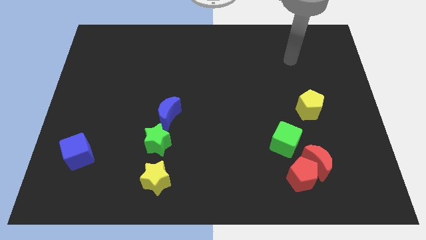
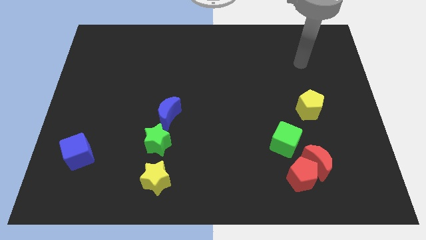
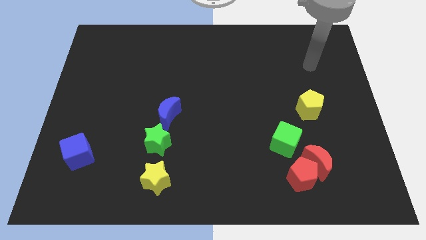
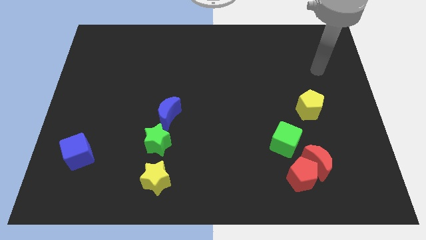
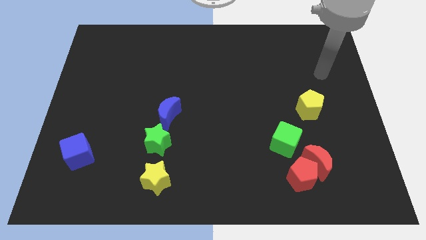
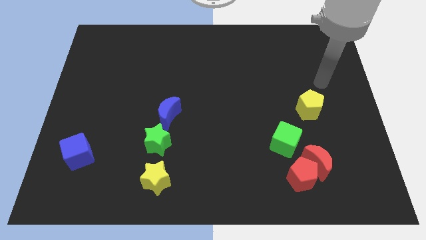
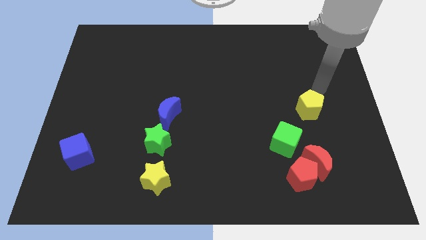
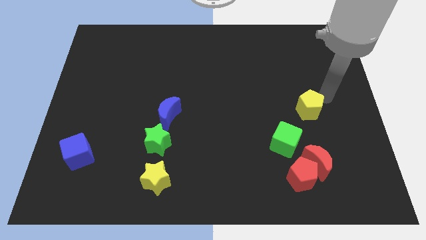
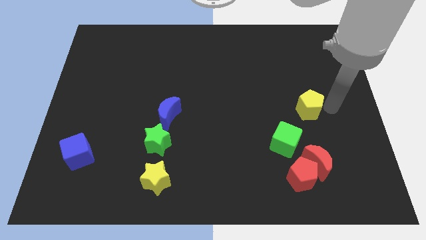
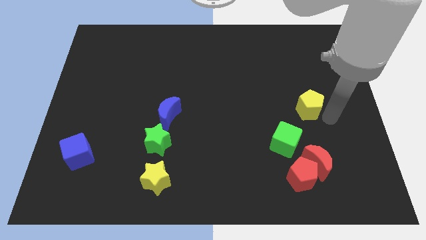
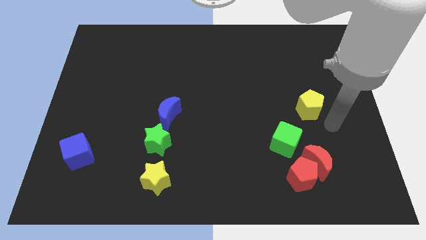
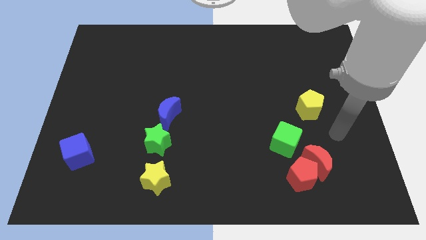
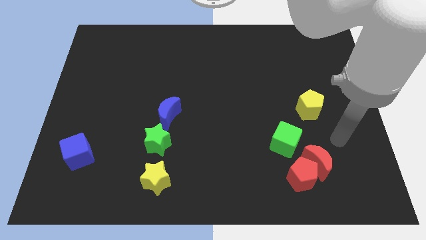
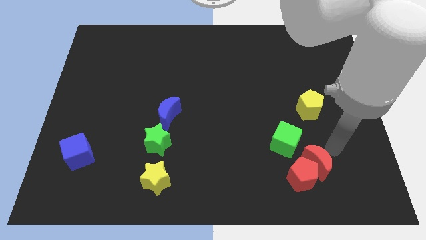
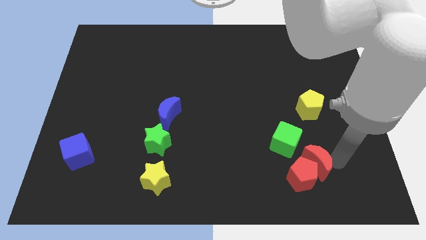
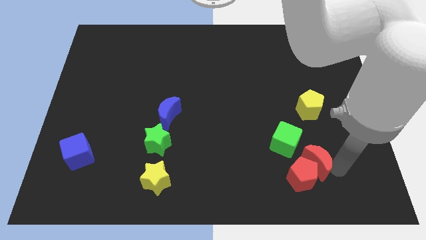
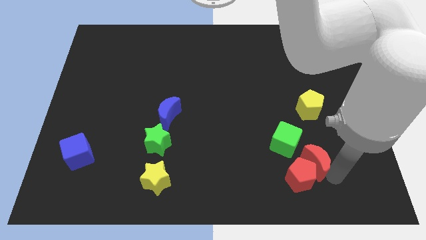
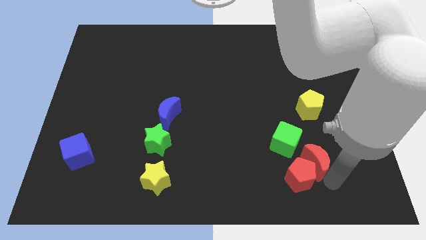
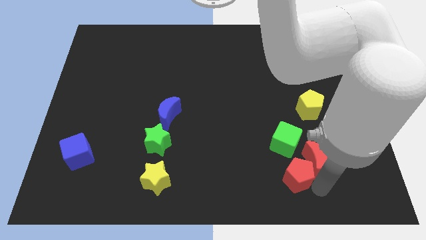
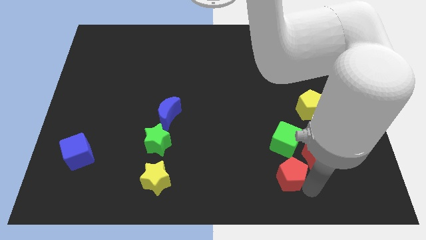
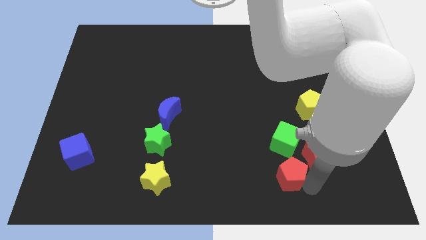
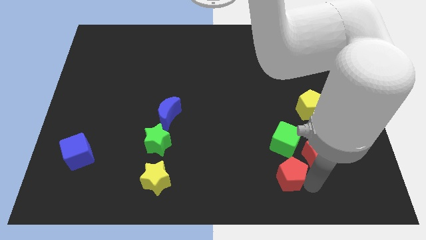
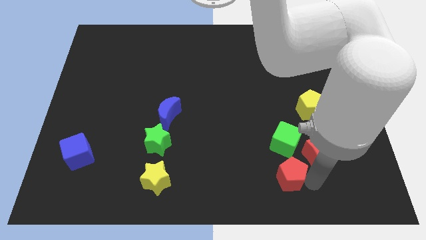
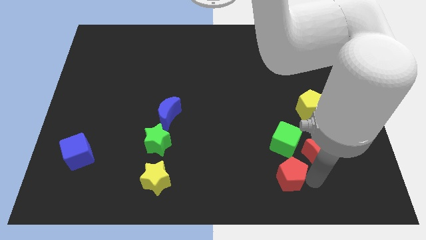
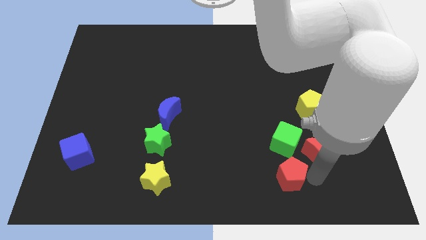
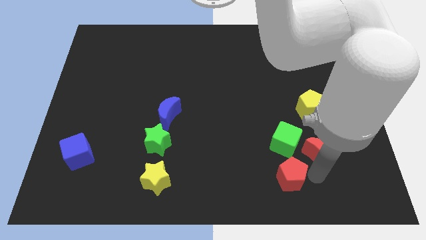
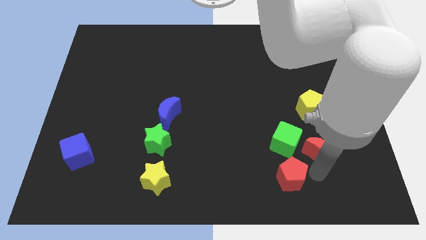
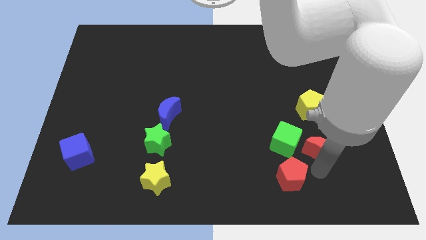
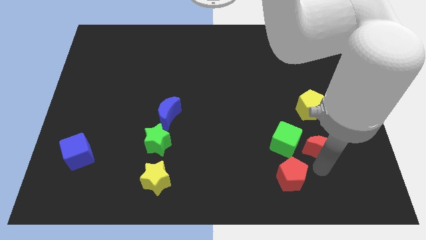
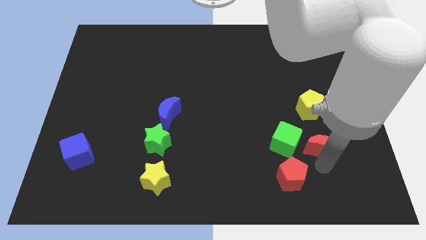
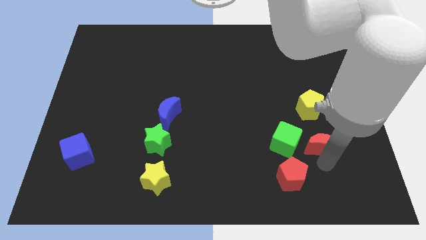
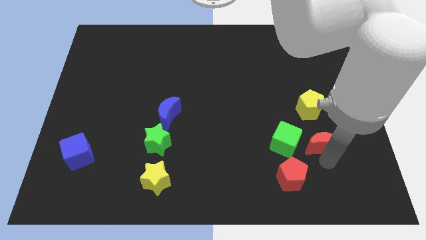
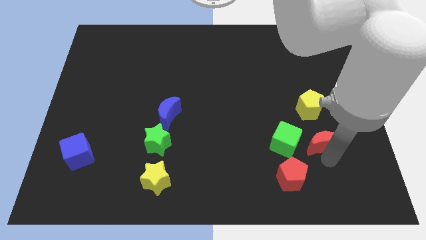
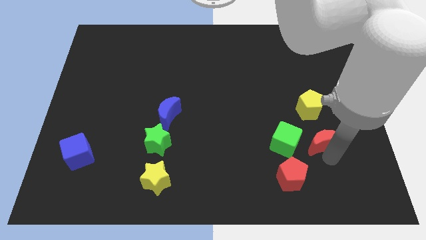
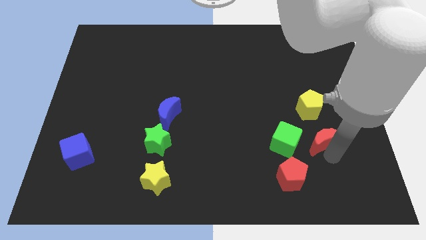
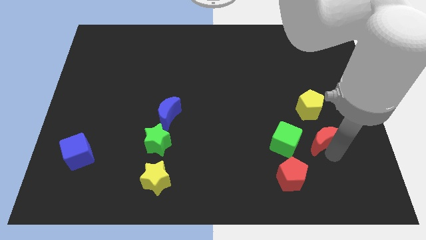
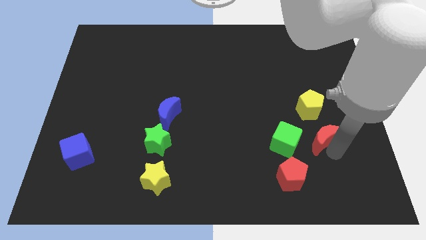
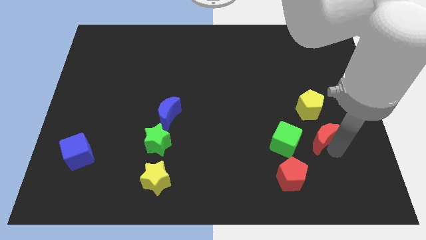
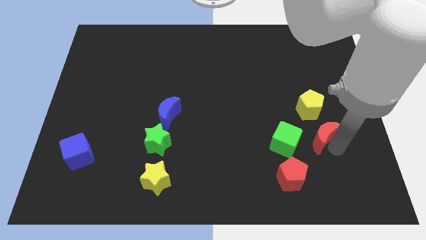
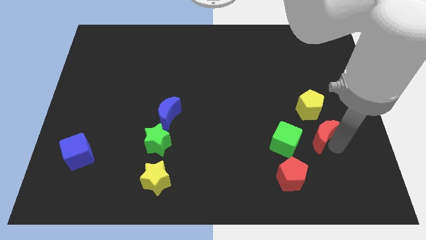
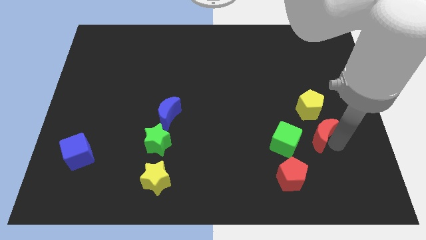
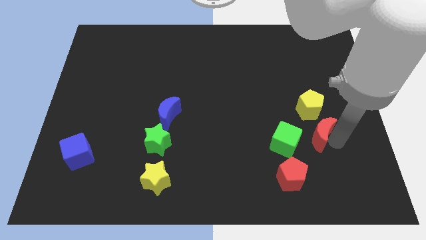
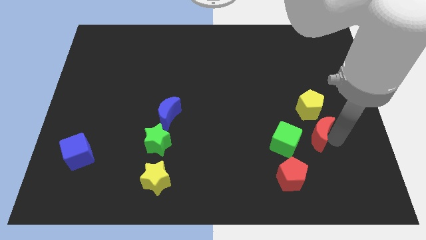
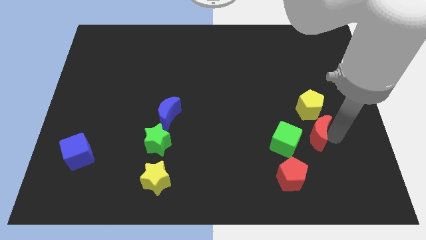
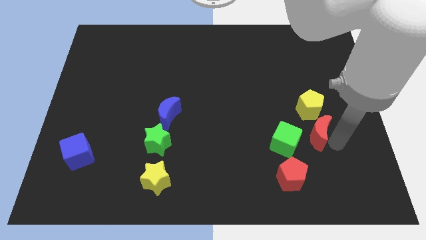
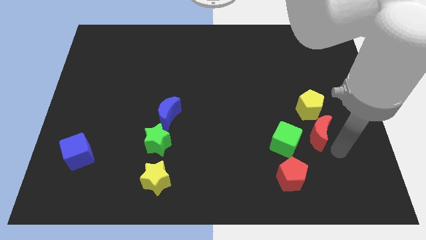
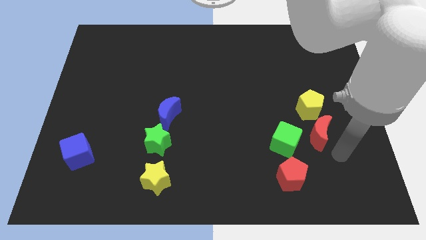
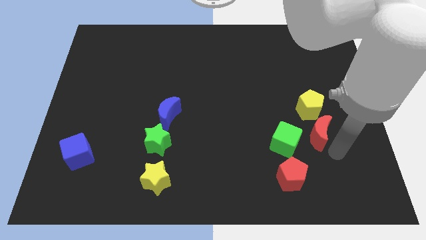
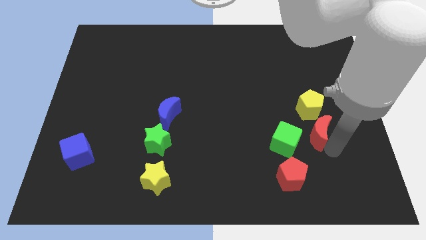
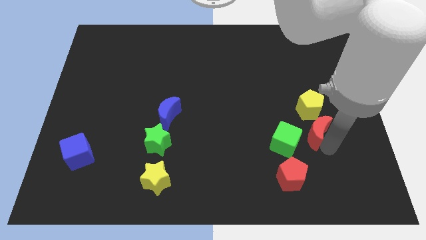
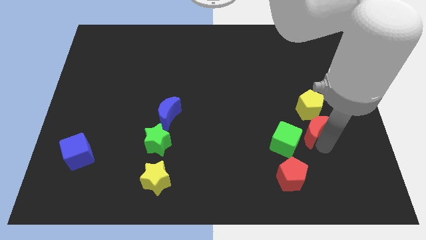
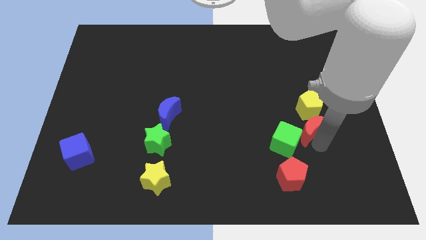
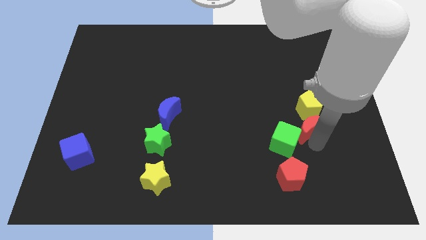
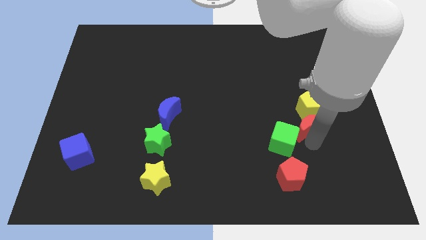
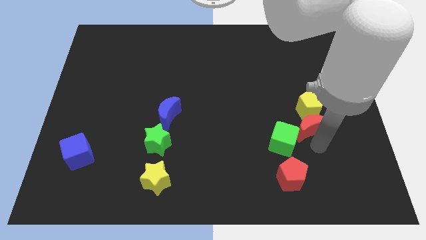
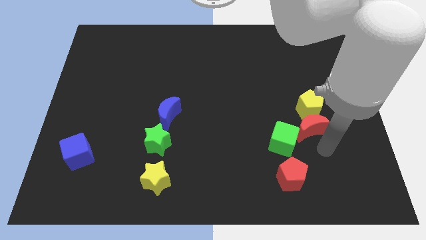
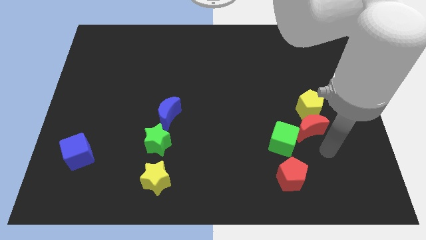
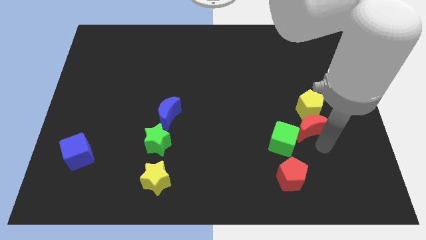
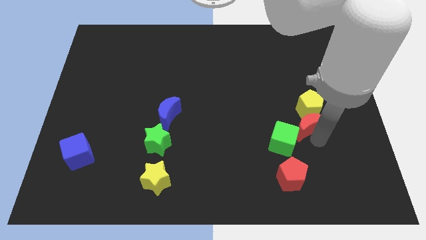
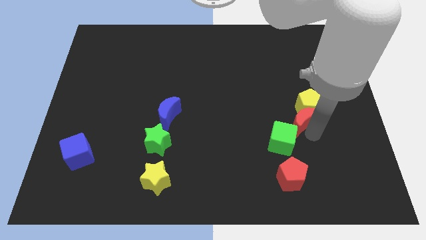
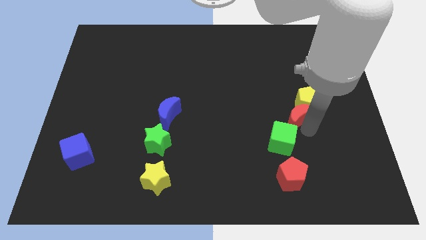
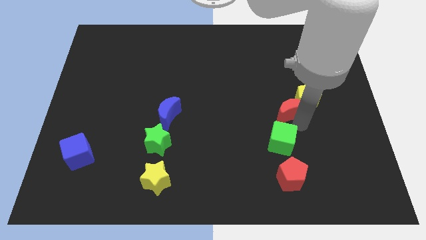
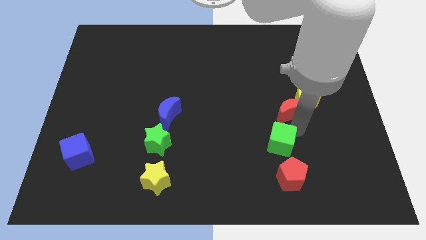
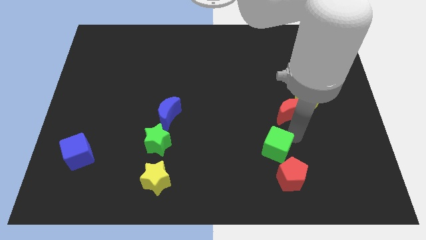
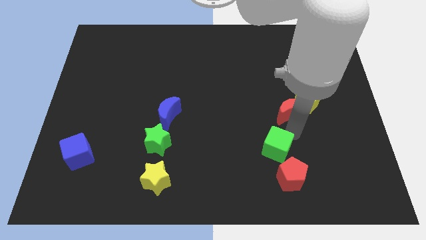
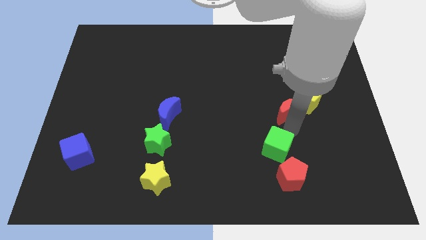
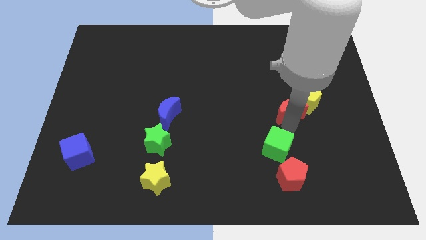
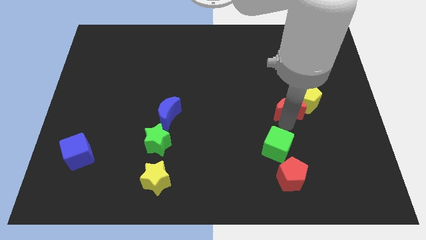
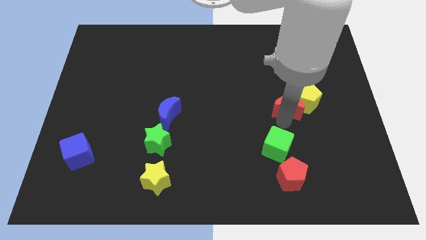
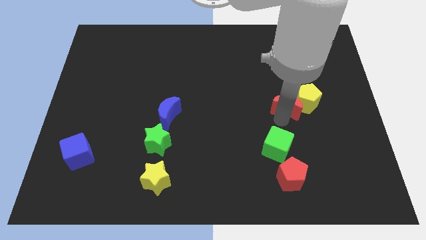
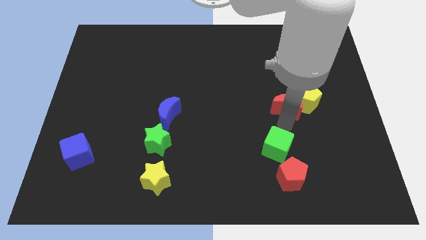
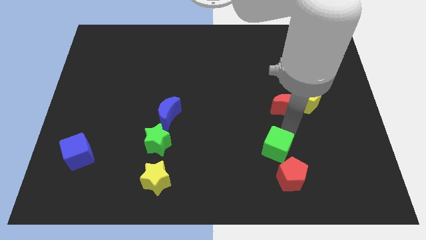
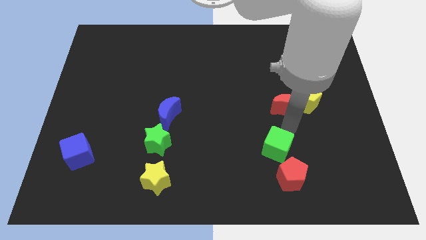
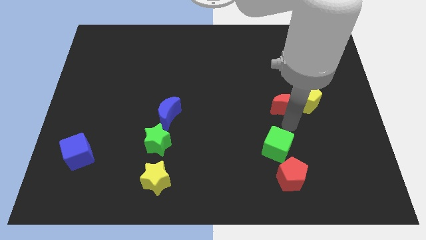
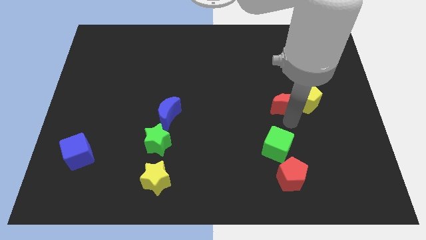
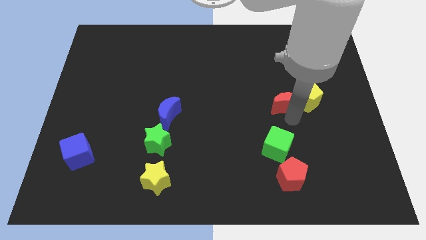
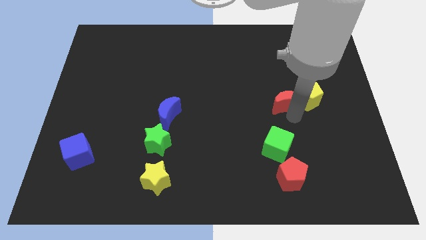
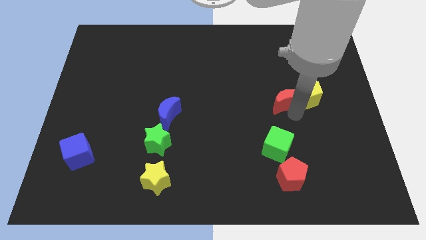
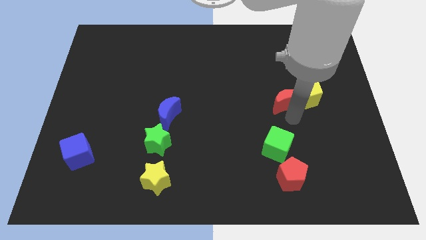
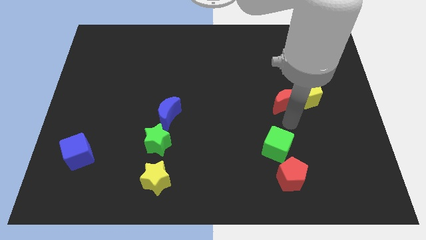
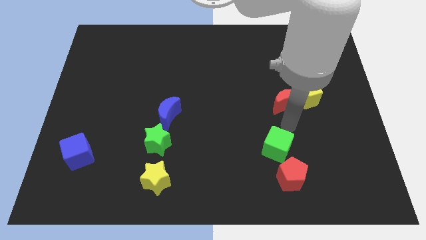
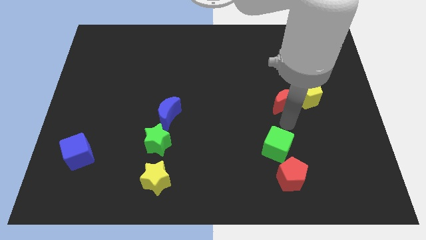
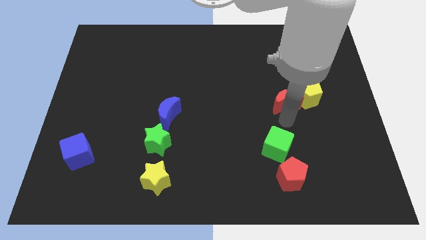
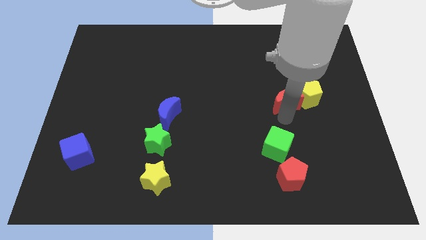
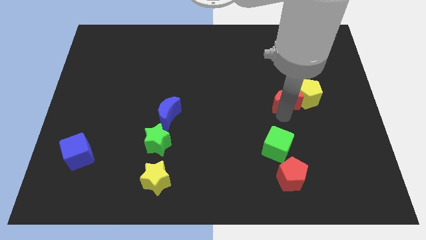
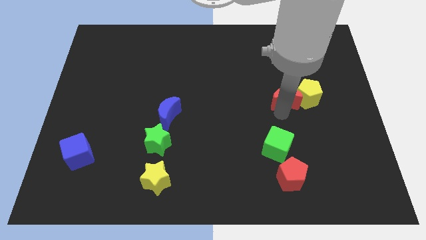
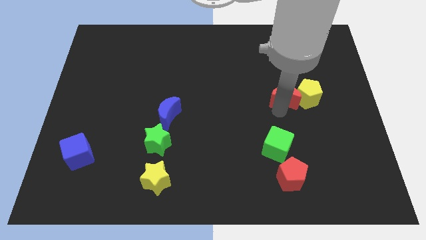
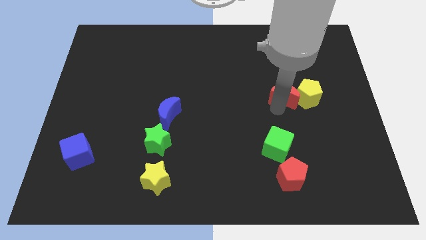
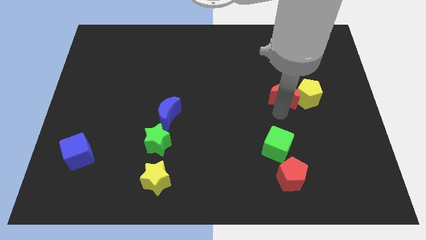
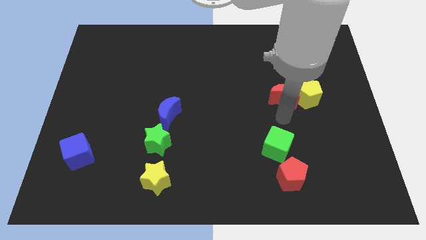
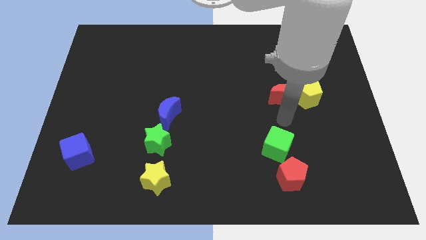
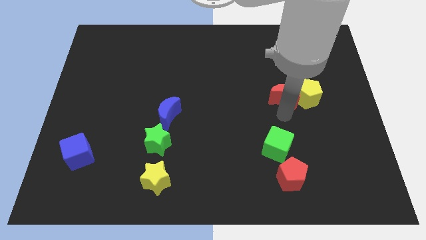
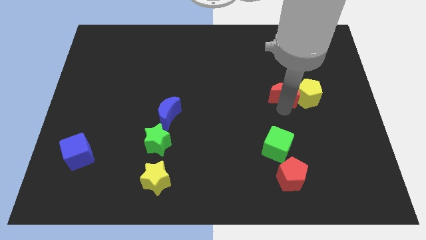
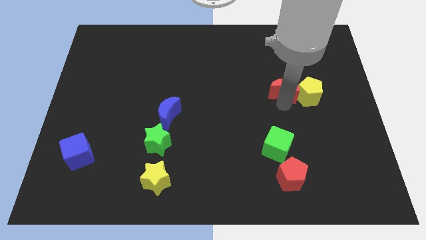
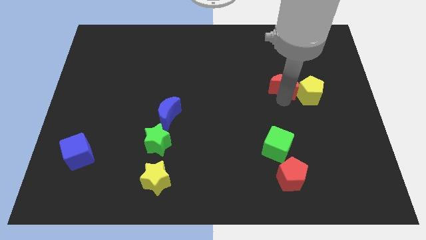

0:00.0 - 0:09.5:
slide the red moon upwards
